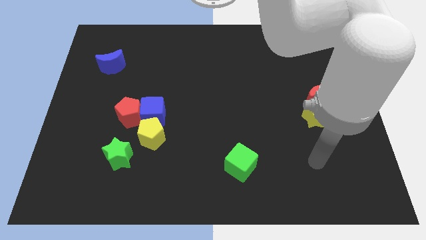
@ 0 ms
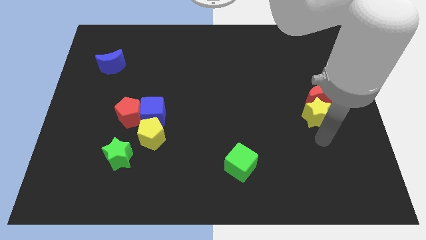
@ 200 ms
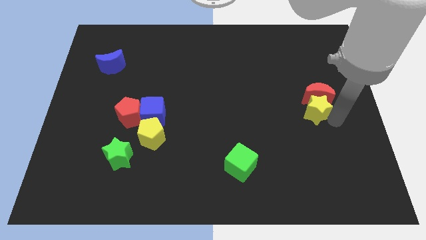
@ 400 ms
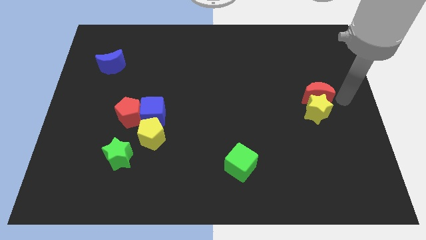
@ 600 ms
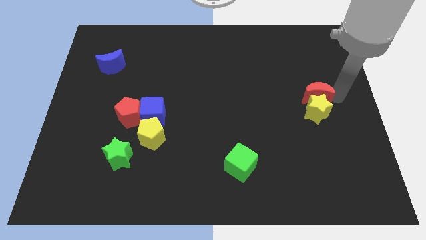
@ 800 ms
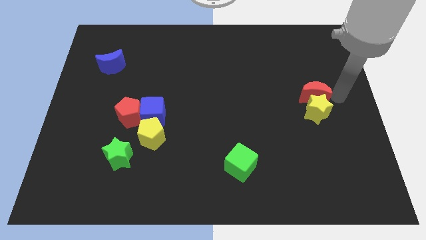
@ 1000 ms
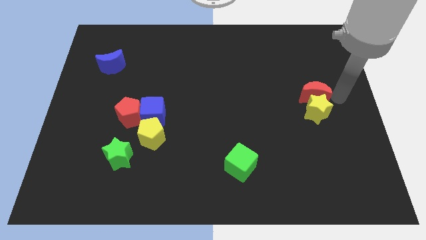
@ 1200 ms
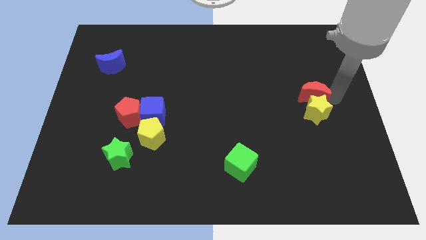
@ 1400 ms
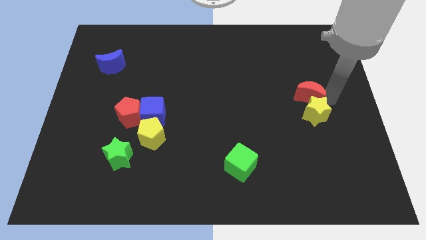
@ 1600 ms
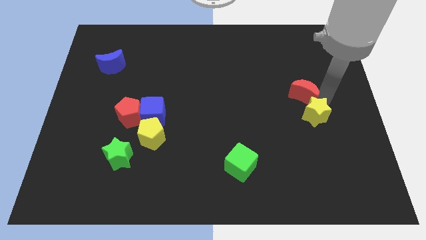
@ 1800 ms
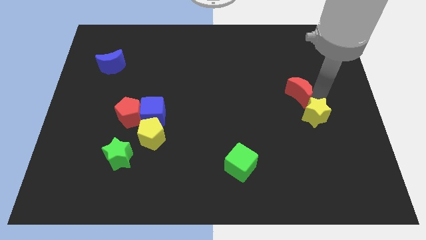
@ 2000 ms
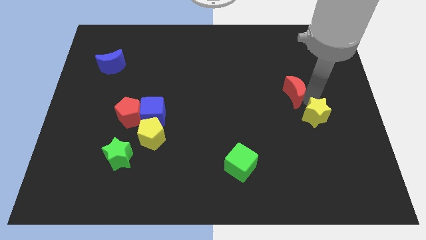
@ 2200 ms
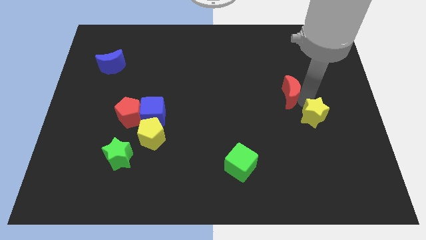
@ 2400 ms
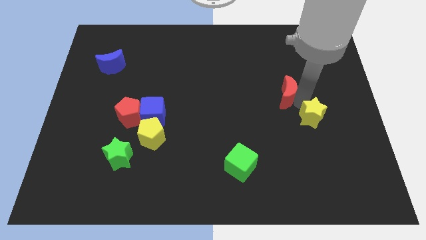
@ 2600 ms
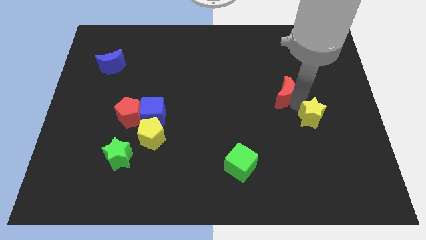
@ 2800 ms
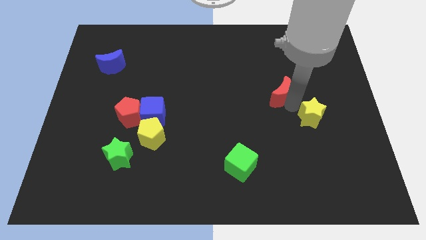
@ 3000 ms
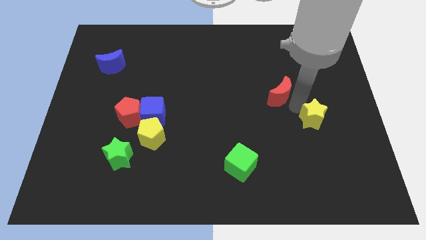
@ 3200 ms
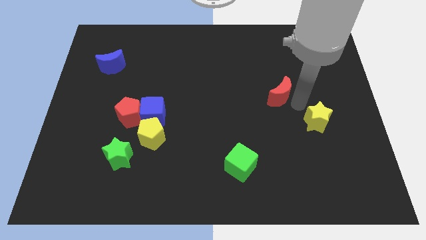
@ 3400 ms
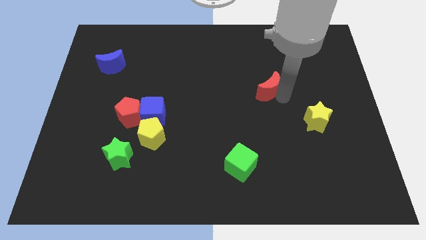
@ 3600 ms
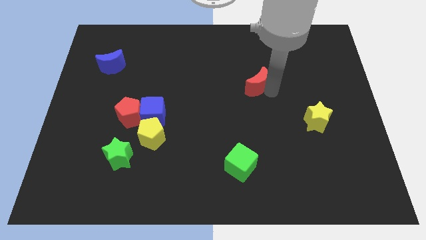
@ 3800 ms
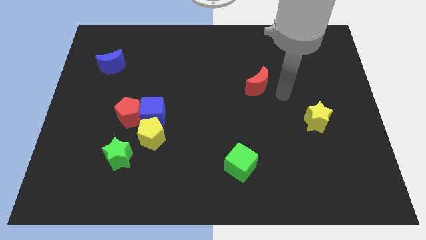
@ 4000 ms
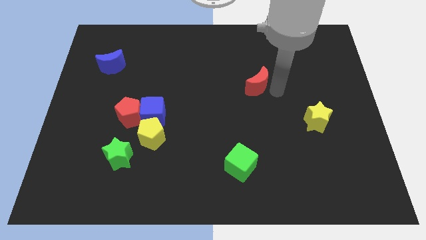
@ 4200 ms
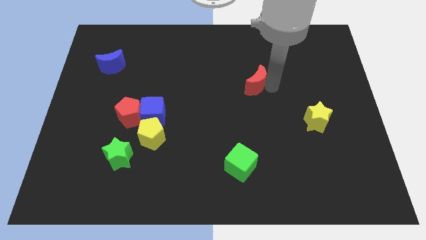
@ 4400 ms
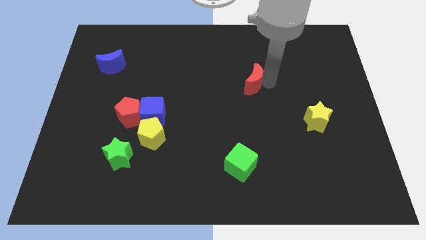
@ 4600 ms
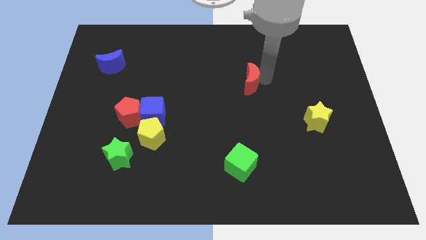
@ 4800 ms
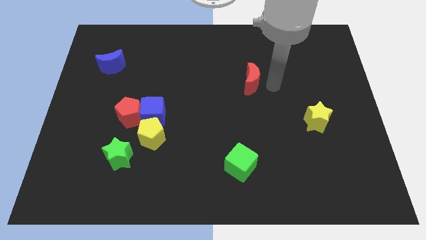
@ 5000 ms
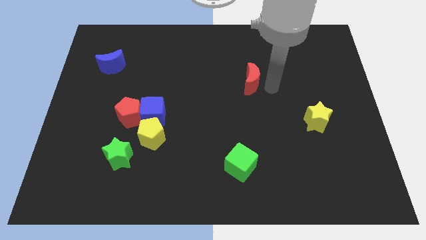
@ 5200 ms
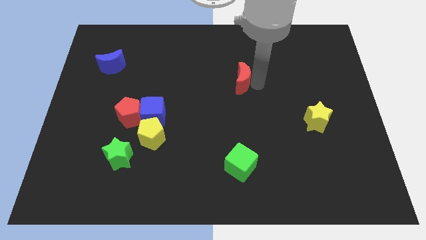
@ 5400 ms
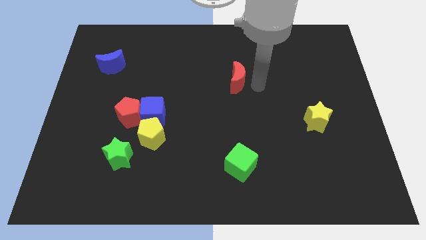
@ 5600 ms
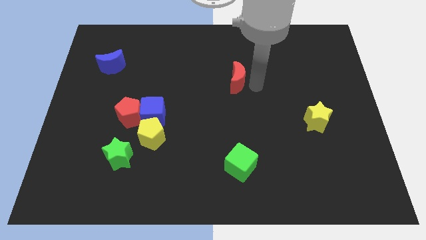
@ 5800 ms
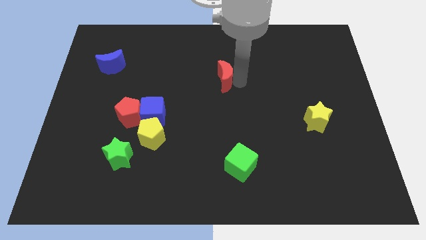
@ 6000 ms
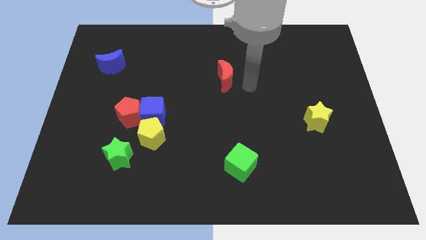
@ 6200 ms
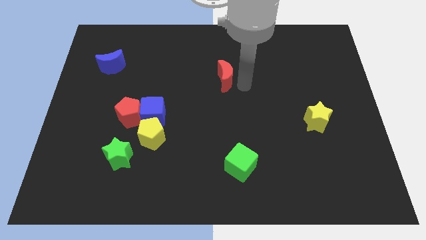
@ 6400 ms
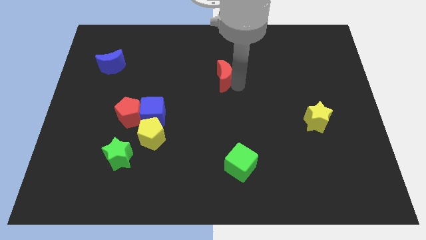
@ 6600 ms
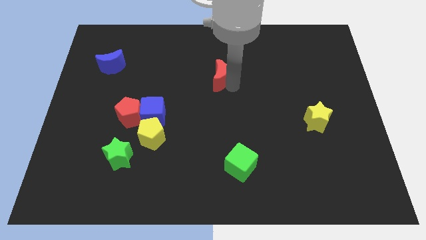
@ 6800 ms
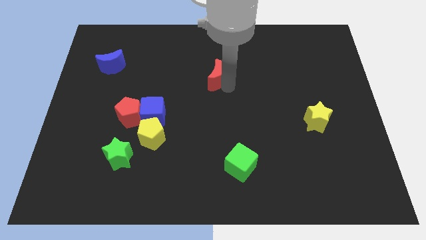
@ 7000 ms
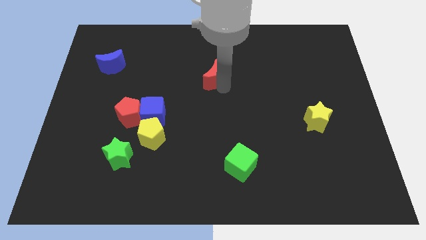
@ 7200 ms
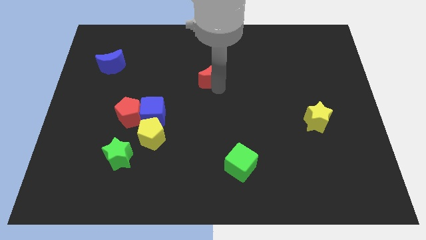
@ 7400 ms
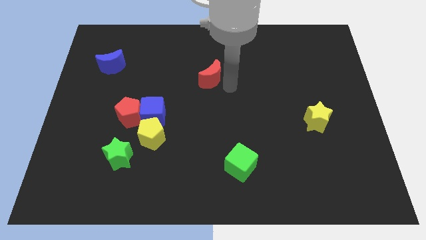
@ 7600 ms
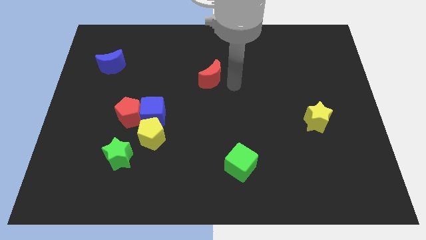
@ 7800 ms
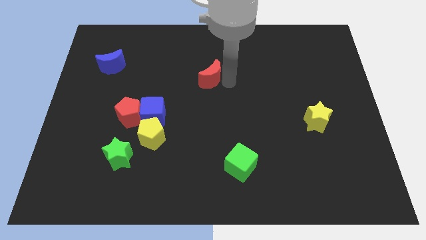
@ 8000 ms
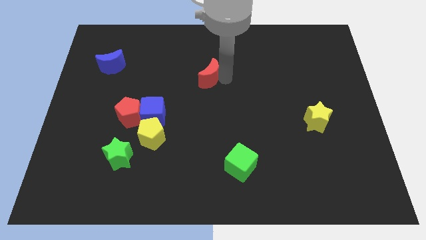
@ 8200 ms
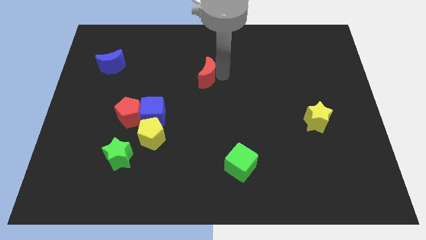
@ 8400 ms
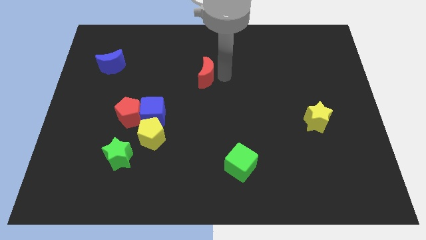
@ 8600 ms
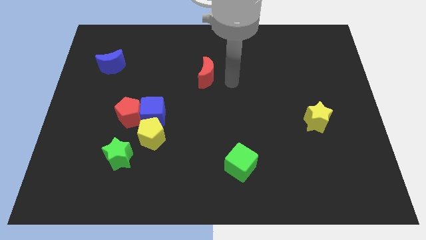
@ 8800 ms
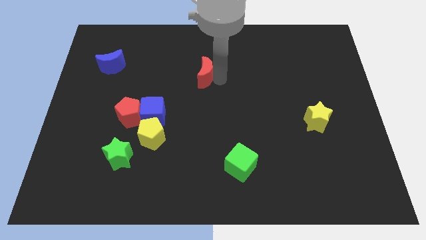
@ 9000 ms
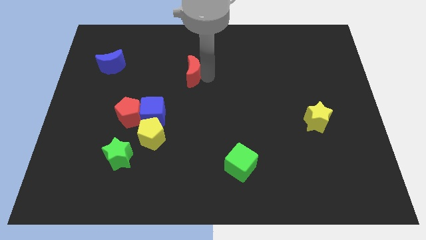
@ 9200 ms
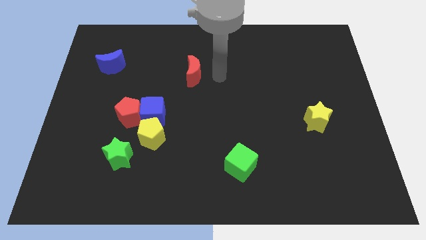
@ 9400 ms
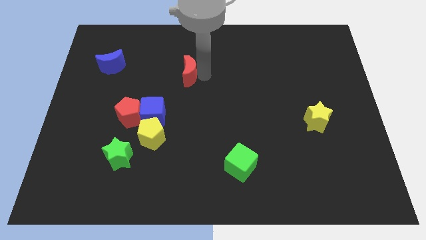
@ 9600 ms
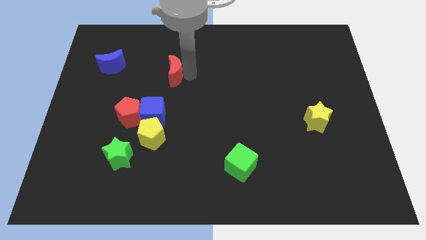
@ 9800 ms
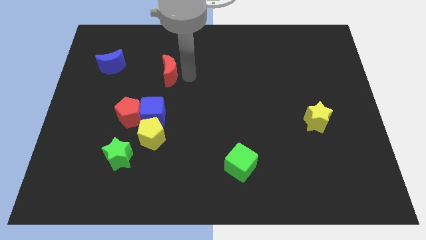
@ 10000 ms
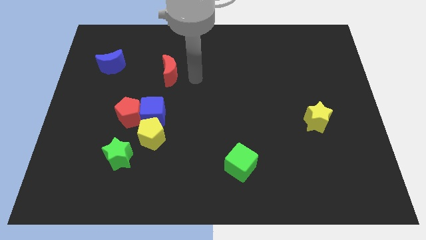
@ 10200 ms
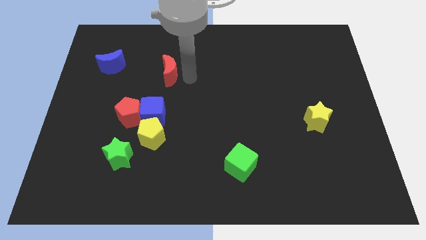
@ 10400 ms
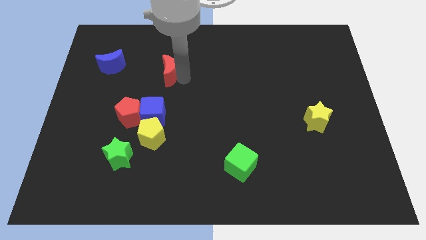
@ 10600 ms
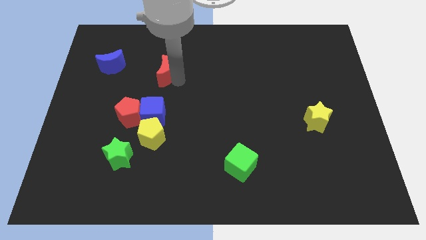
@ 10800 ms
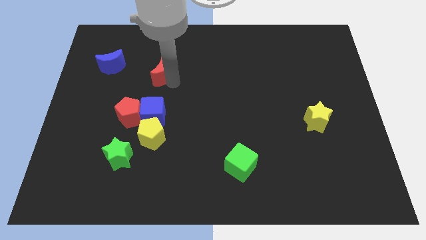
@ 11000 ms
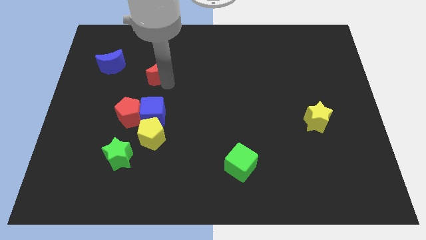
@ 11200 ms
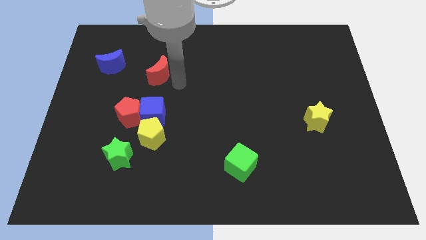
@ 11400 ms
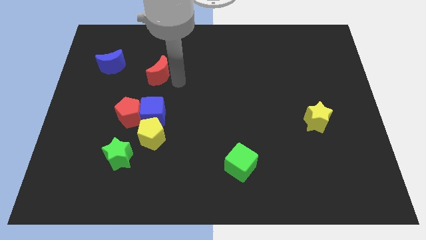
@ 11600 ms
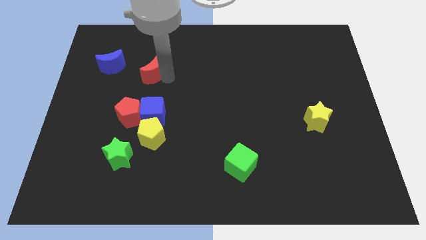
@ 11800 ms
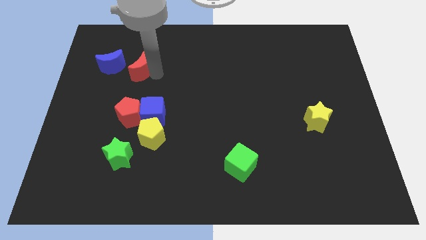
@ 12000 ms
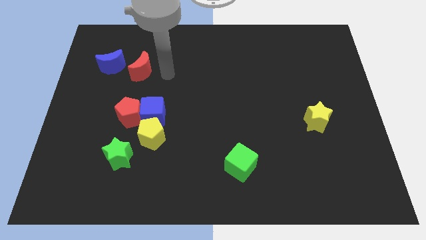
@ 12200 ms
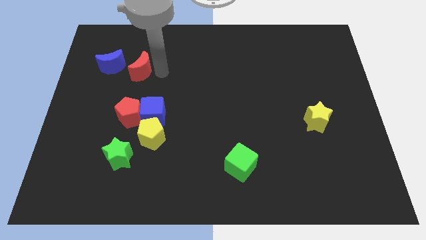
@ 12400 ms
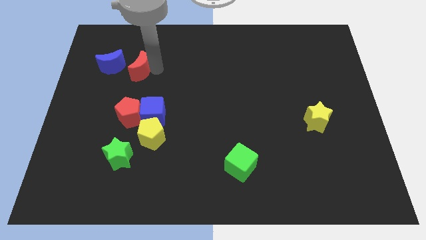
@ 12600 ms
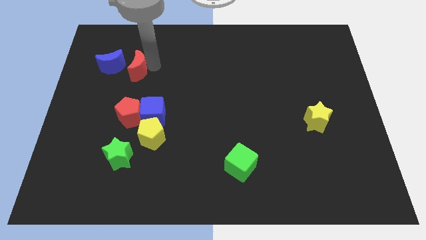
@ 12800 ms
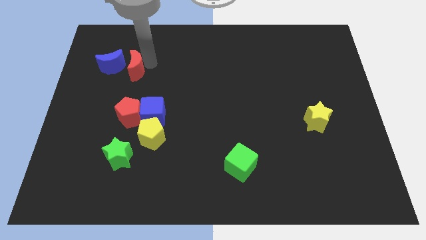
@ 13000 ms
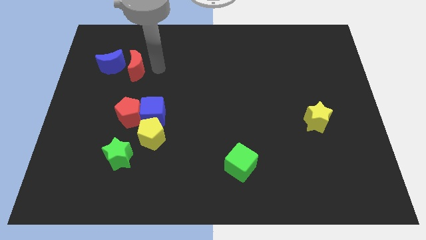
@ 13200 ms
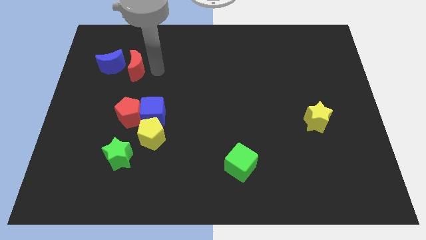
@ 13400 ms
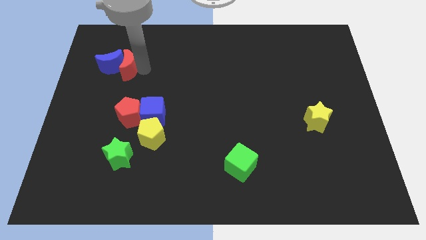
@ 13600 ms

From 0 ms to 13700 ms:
move the red moon to the blue moon

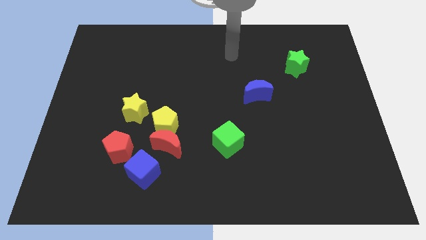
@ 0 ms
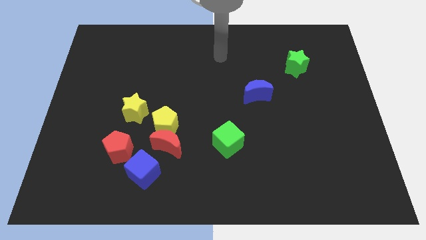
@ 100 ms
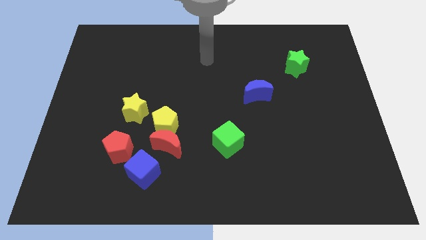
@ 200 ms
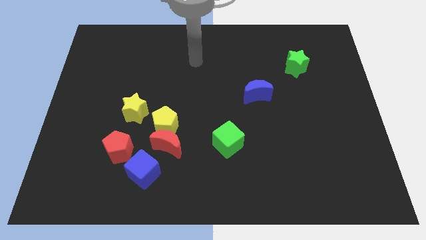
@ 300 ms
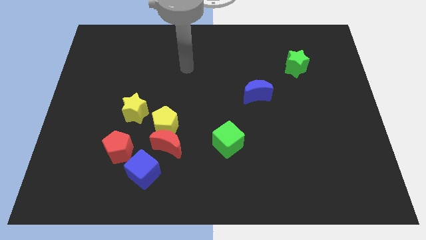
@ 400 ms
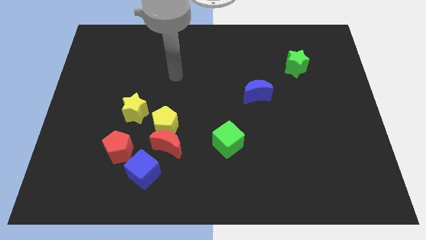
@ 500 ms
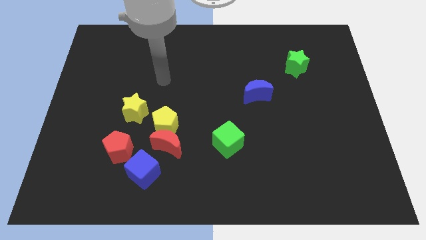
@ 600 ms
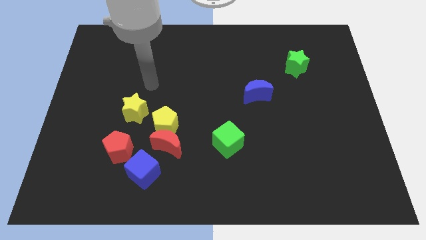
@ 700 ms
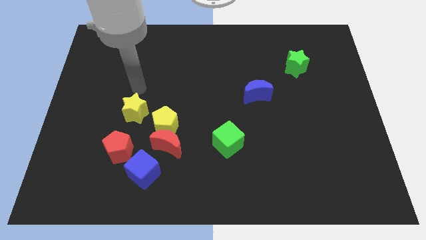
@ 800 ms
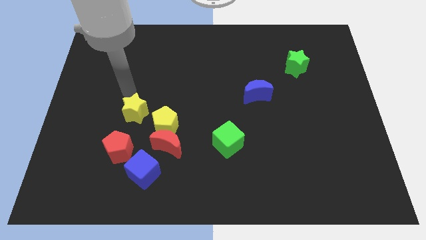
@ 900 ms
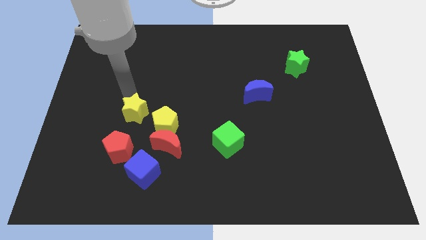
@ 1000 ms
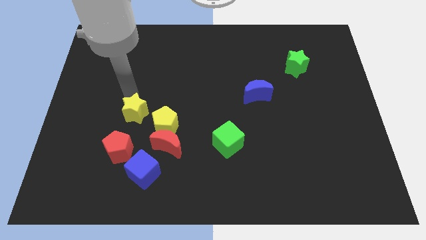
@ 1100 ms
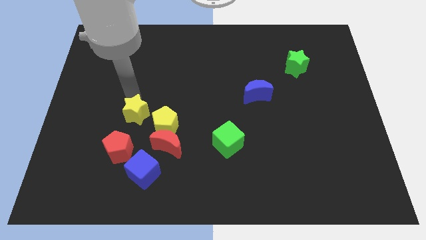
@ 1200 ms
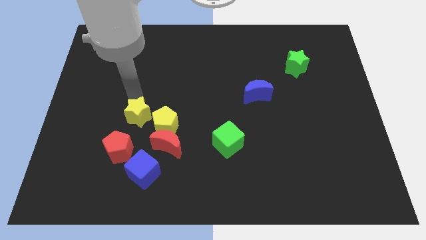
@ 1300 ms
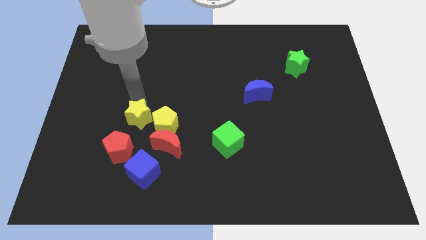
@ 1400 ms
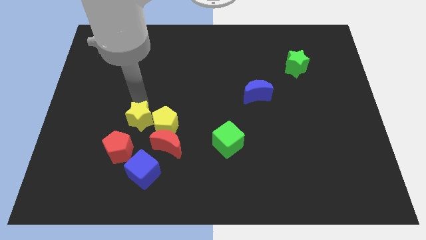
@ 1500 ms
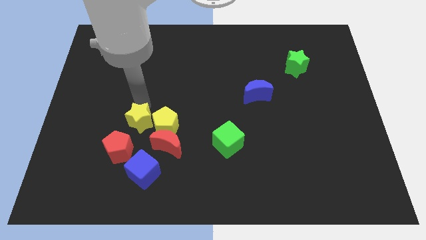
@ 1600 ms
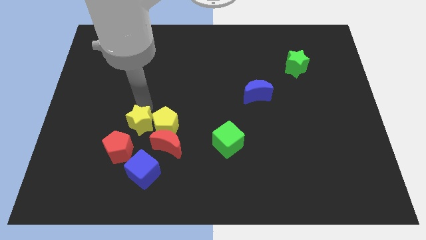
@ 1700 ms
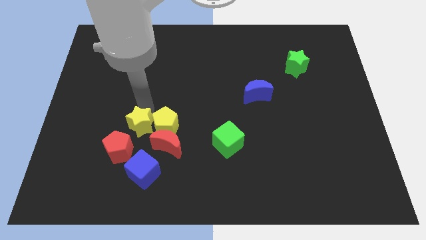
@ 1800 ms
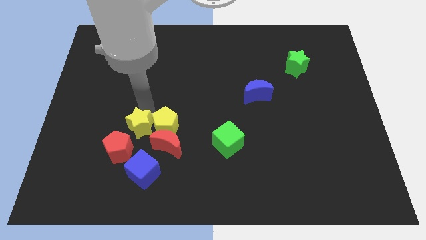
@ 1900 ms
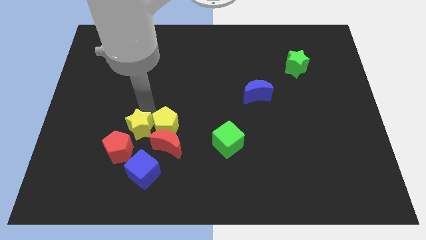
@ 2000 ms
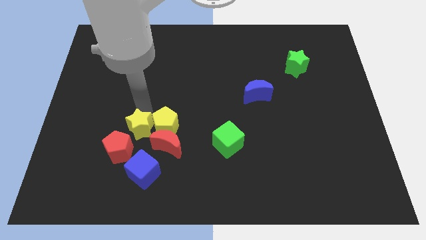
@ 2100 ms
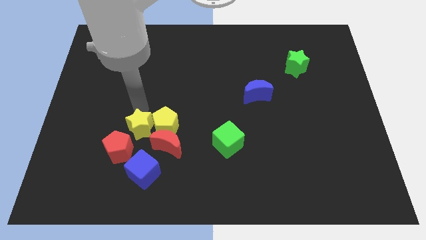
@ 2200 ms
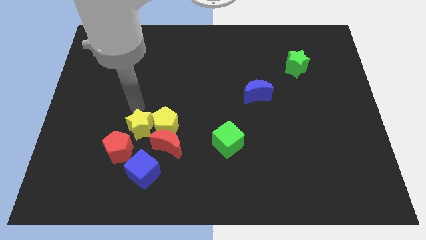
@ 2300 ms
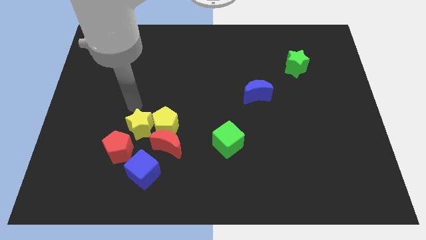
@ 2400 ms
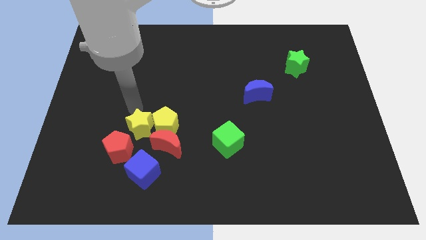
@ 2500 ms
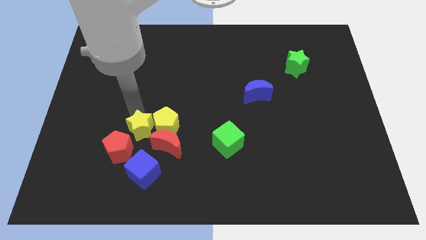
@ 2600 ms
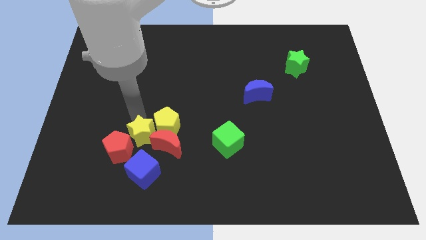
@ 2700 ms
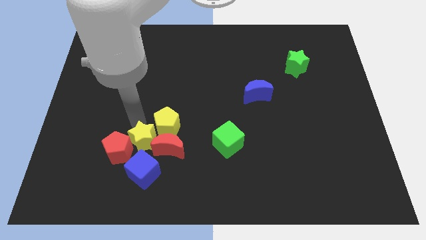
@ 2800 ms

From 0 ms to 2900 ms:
push the yellow star next to the red moon
